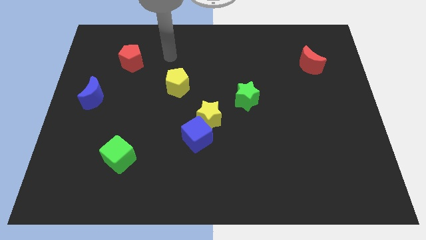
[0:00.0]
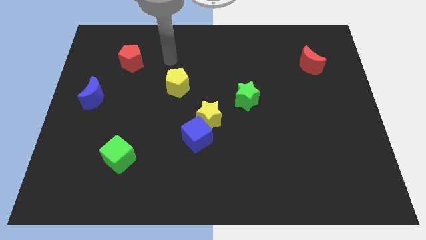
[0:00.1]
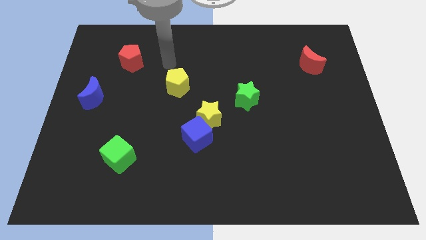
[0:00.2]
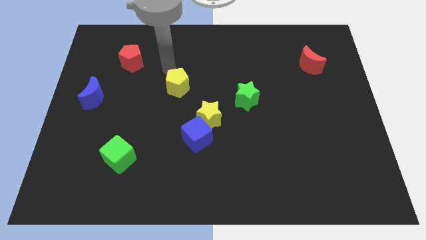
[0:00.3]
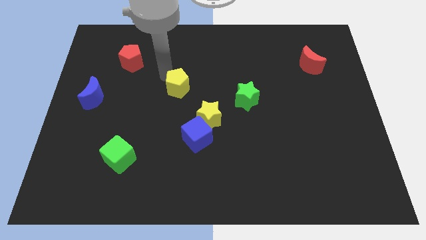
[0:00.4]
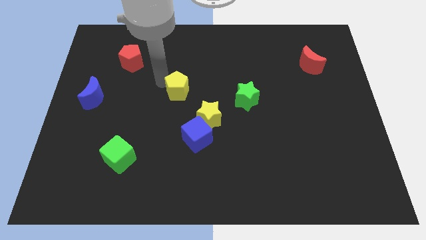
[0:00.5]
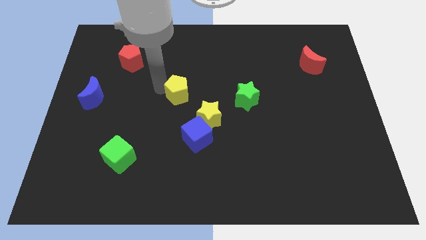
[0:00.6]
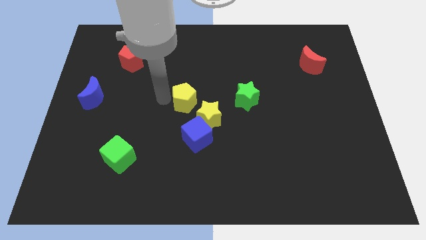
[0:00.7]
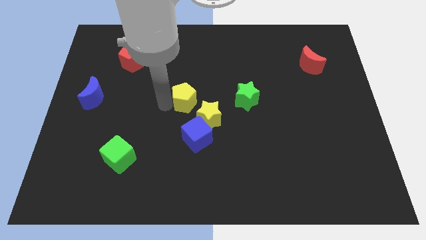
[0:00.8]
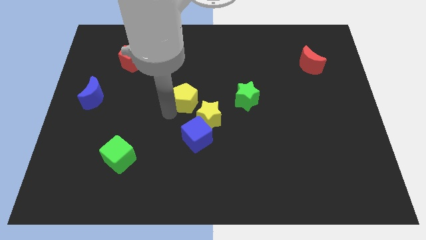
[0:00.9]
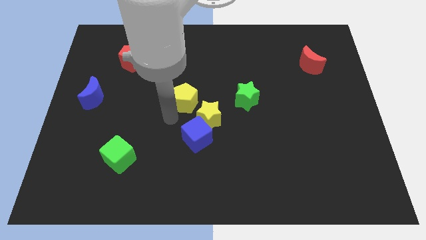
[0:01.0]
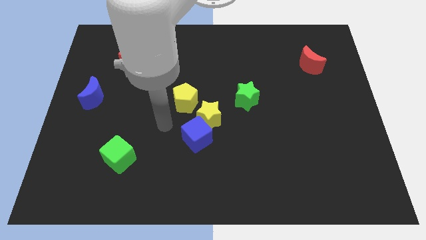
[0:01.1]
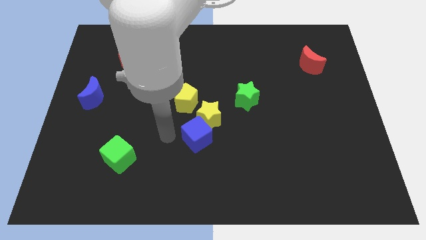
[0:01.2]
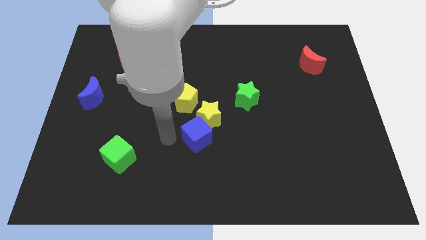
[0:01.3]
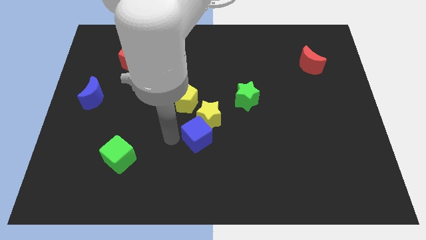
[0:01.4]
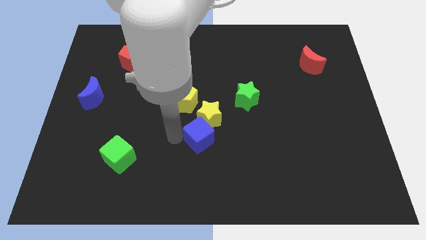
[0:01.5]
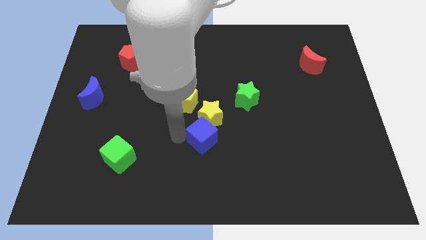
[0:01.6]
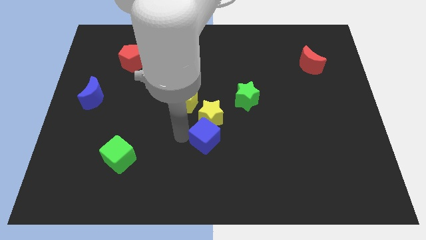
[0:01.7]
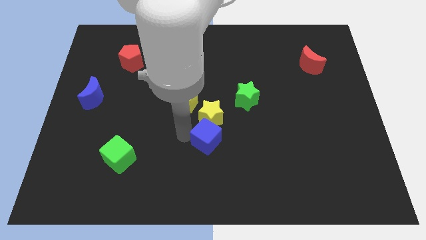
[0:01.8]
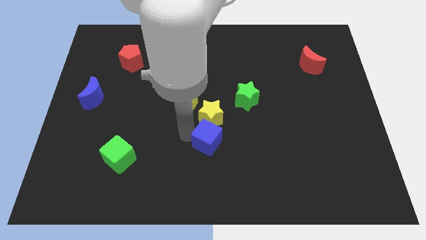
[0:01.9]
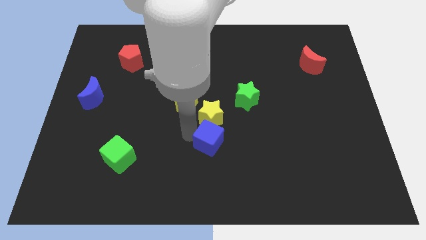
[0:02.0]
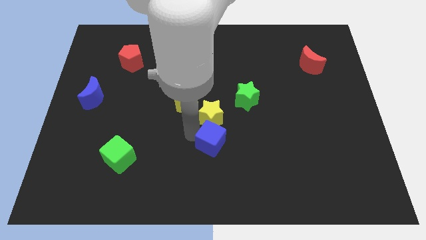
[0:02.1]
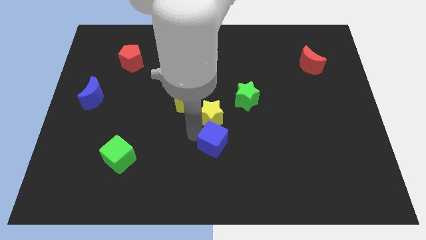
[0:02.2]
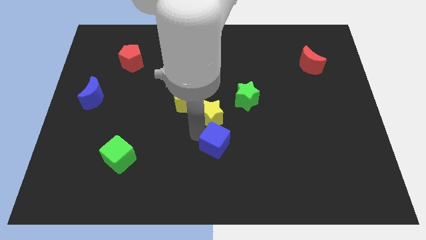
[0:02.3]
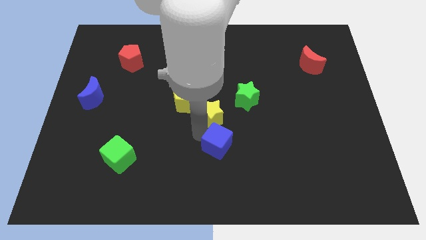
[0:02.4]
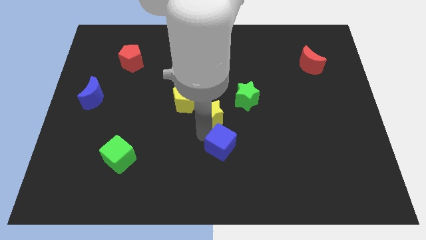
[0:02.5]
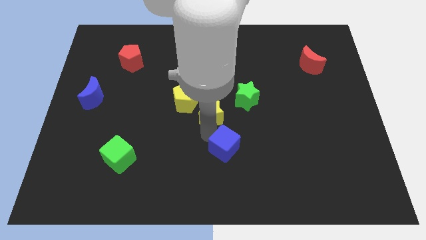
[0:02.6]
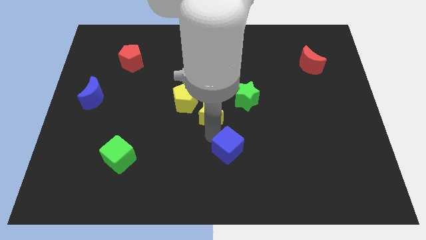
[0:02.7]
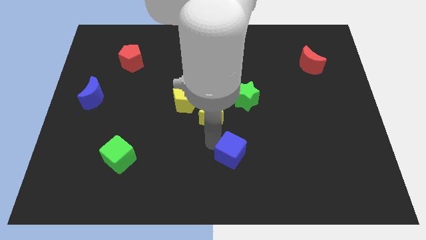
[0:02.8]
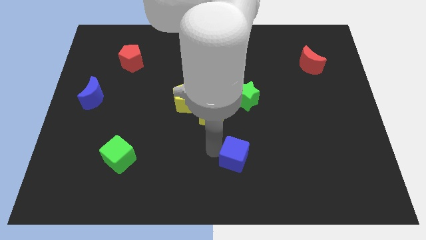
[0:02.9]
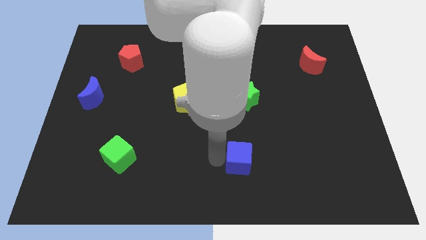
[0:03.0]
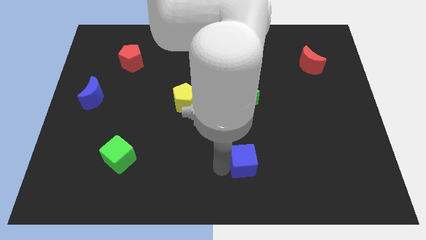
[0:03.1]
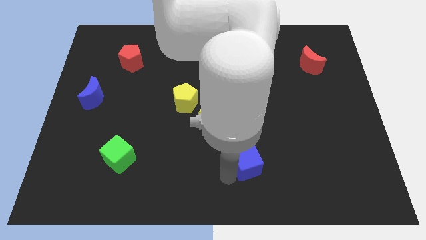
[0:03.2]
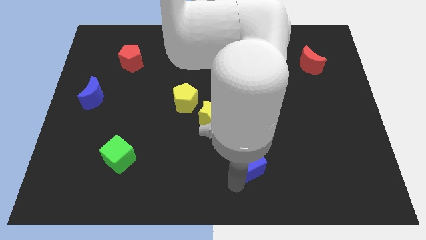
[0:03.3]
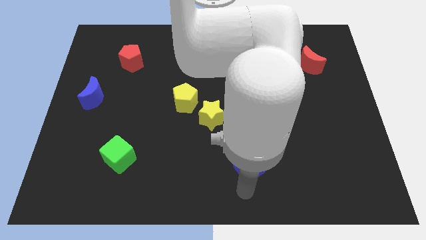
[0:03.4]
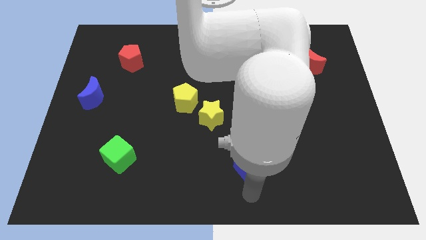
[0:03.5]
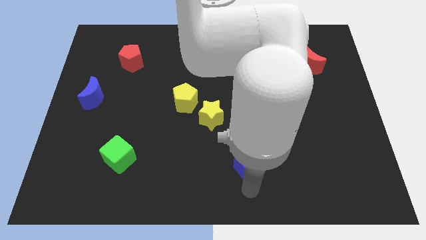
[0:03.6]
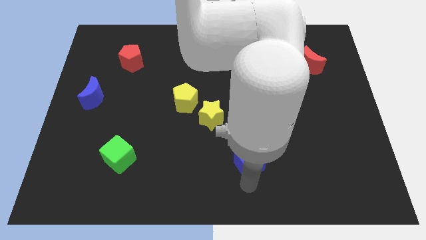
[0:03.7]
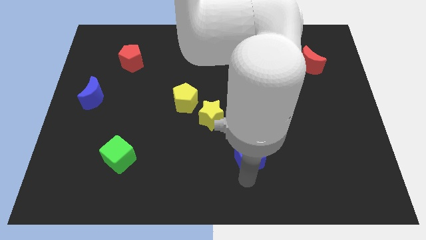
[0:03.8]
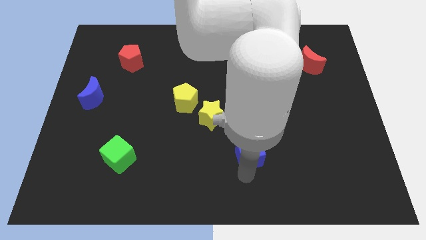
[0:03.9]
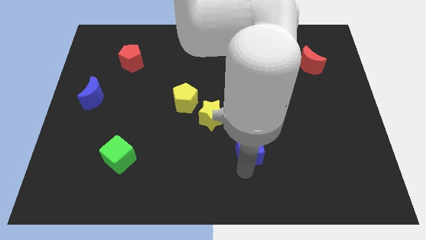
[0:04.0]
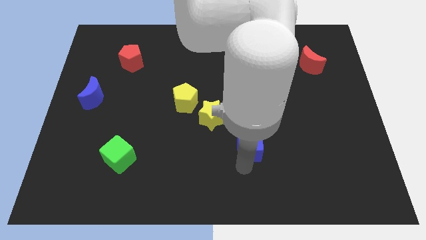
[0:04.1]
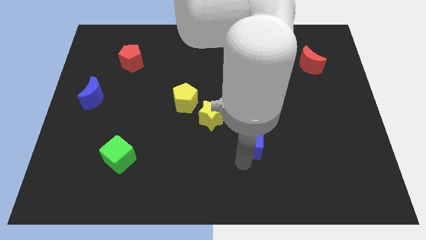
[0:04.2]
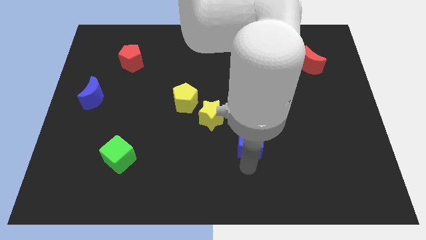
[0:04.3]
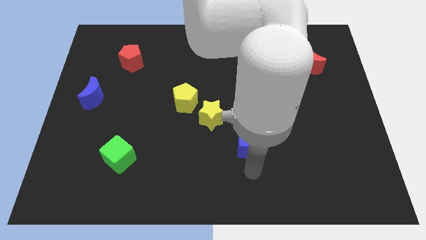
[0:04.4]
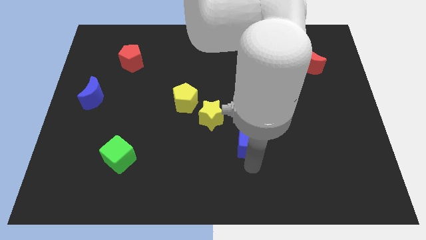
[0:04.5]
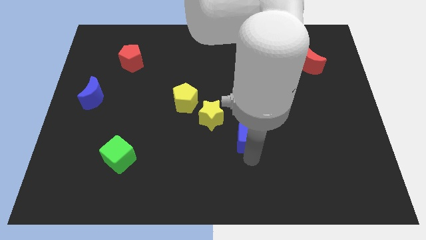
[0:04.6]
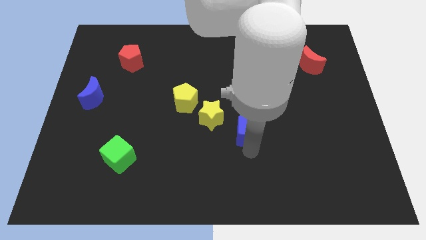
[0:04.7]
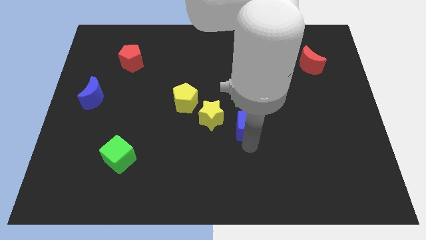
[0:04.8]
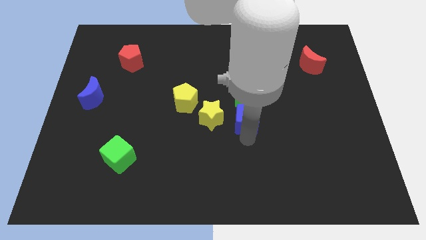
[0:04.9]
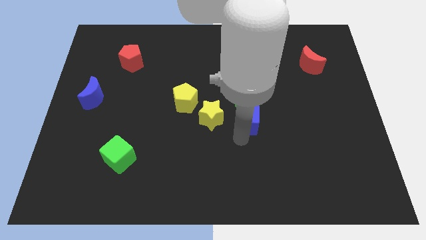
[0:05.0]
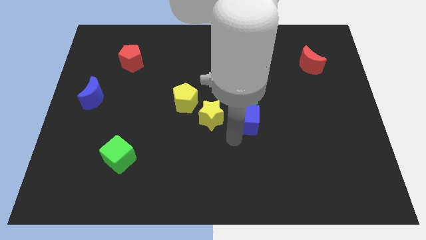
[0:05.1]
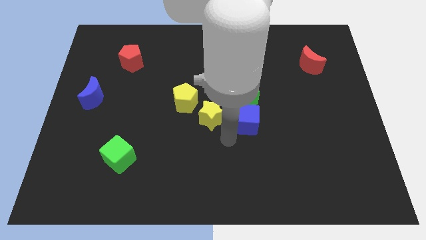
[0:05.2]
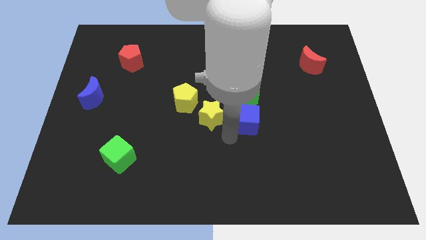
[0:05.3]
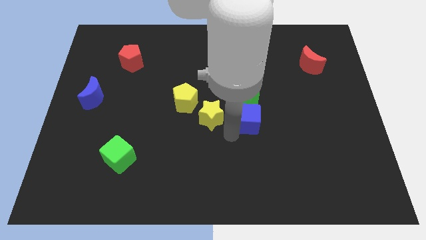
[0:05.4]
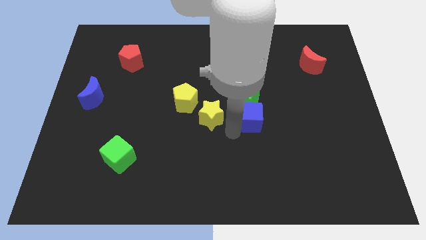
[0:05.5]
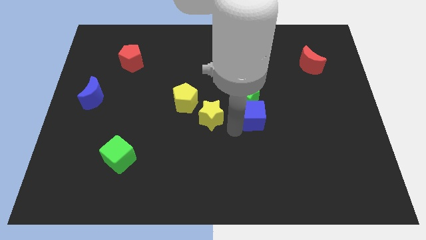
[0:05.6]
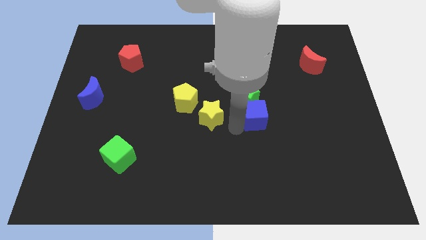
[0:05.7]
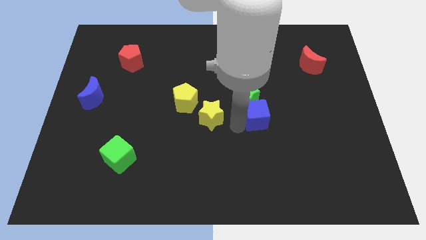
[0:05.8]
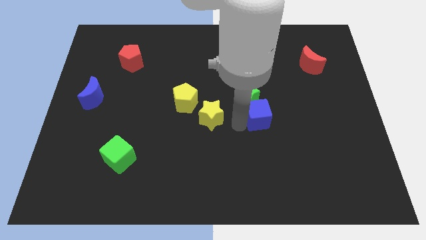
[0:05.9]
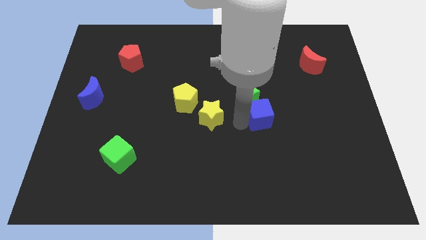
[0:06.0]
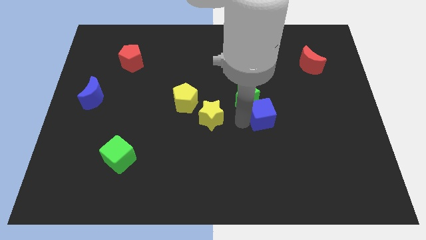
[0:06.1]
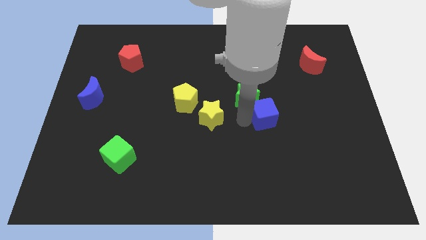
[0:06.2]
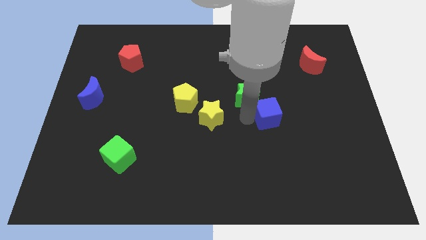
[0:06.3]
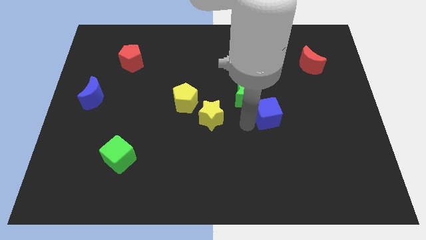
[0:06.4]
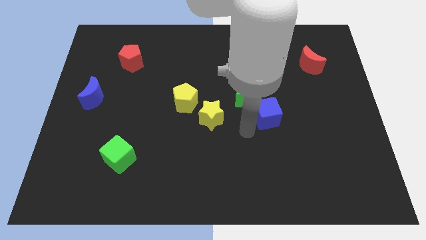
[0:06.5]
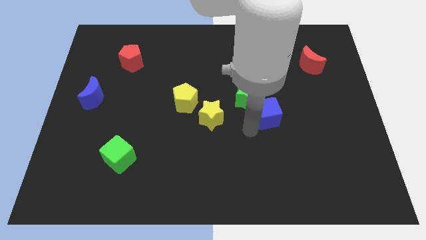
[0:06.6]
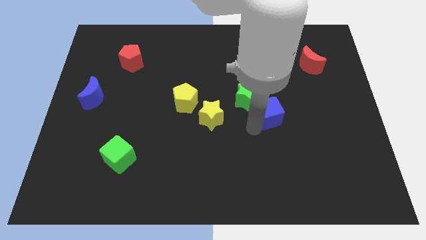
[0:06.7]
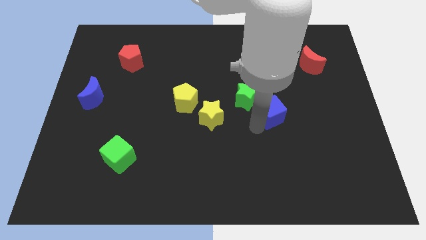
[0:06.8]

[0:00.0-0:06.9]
slide the blue cube to the right of the green star
